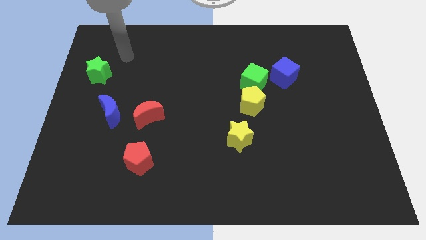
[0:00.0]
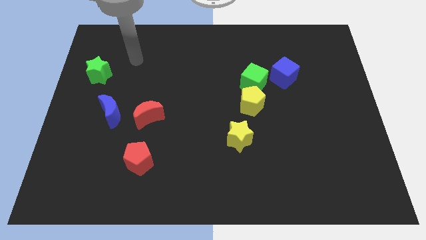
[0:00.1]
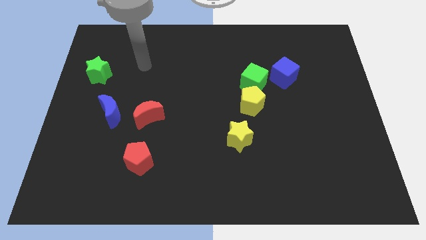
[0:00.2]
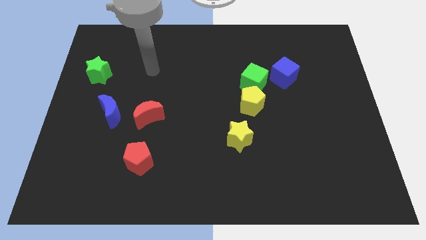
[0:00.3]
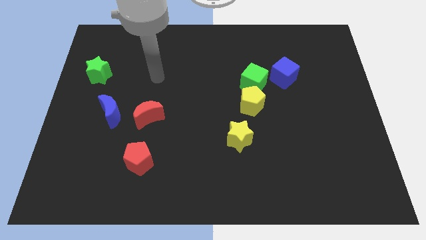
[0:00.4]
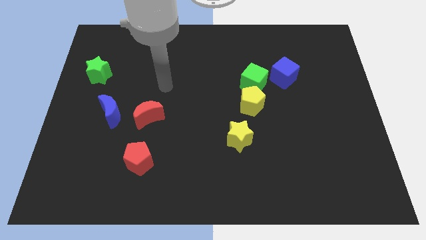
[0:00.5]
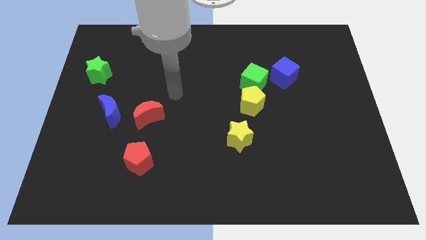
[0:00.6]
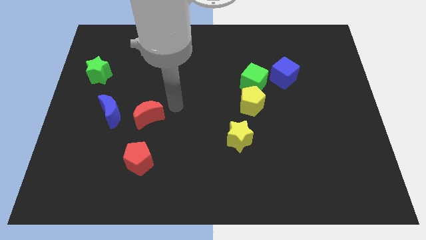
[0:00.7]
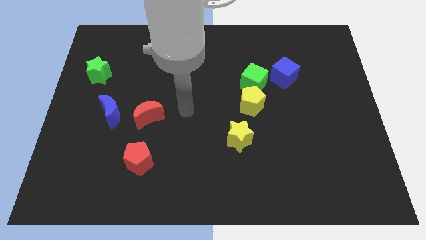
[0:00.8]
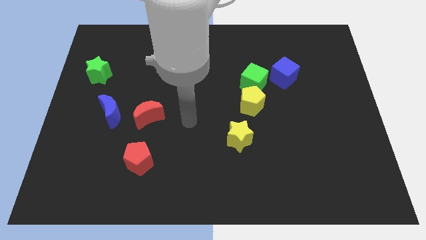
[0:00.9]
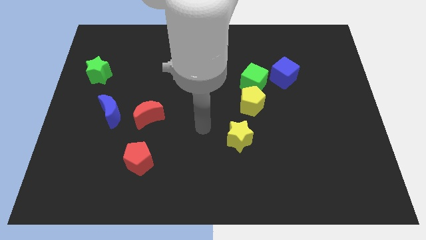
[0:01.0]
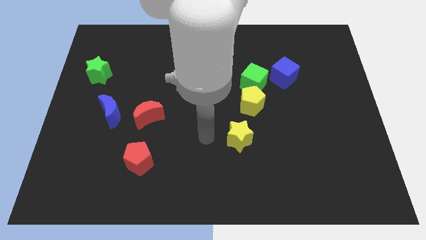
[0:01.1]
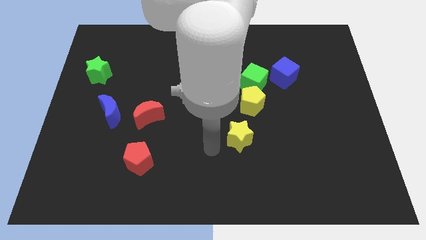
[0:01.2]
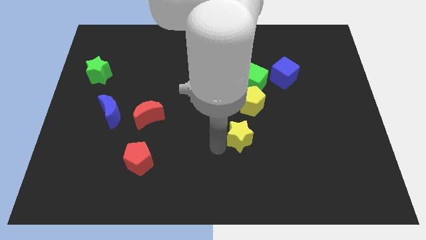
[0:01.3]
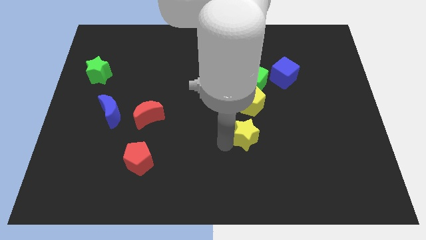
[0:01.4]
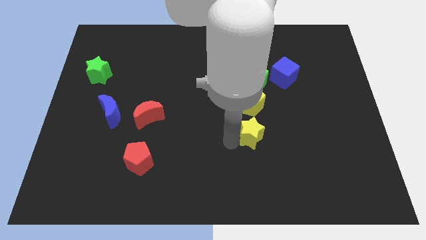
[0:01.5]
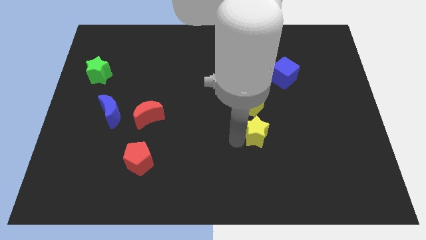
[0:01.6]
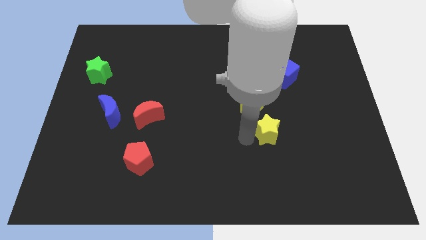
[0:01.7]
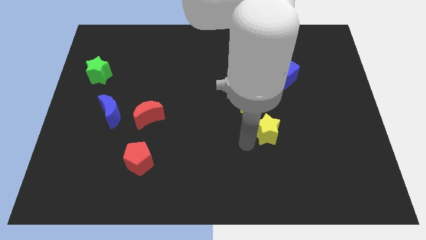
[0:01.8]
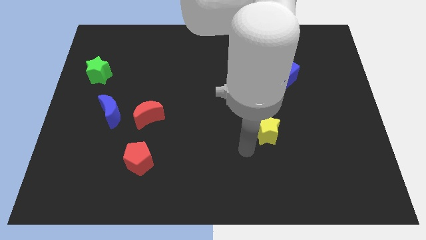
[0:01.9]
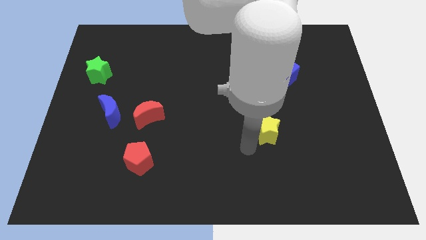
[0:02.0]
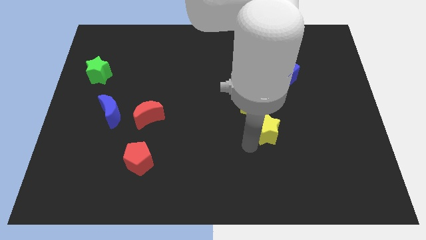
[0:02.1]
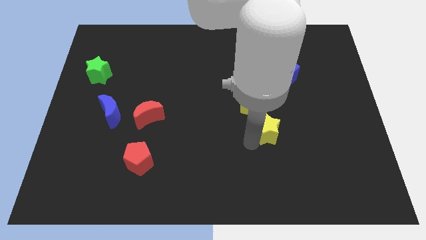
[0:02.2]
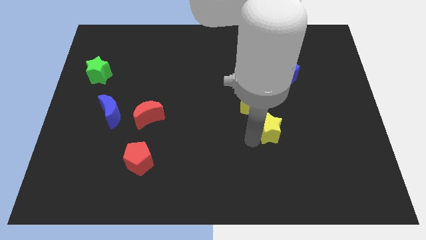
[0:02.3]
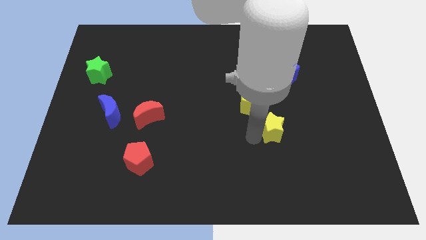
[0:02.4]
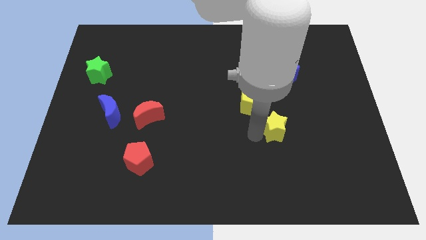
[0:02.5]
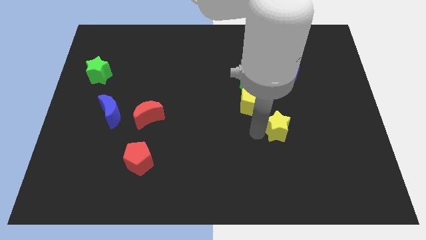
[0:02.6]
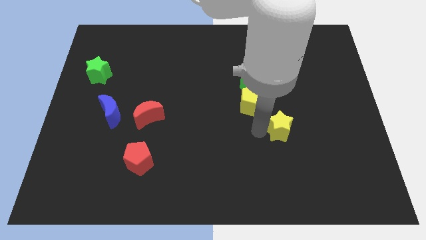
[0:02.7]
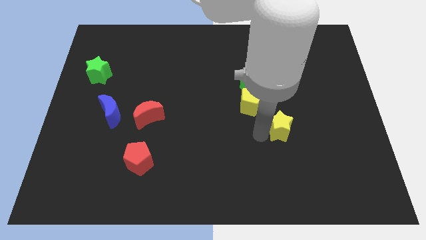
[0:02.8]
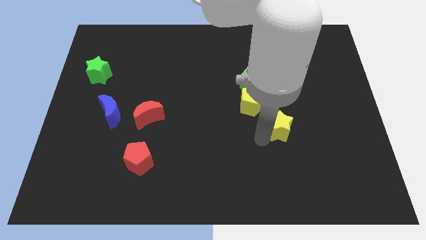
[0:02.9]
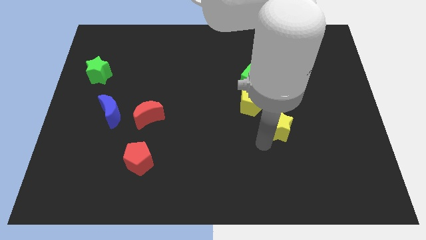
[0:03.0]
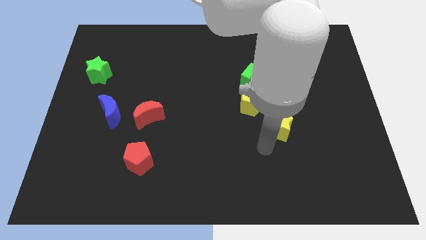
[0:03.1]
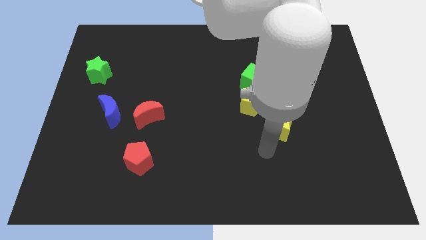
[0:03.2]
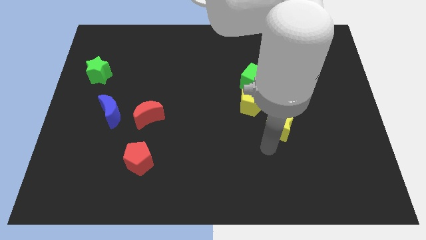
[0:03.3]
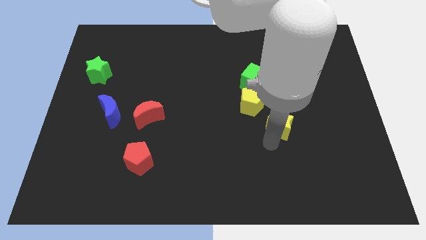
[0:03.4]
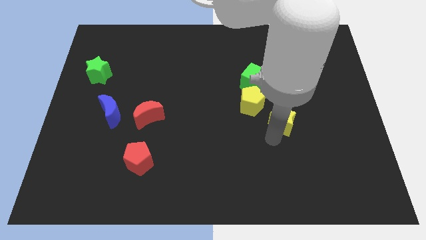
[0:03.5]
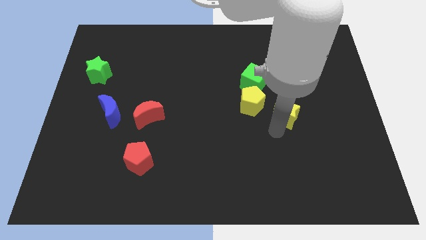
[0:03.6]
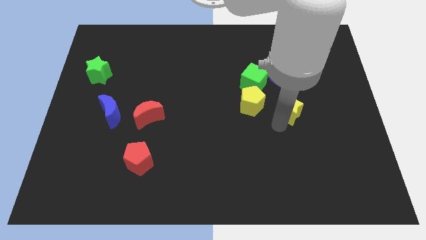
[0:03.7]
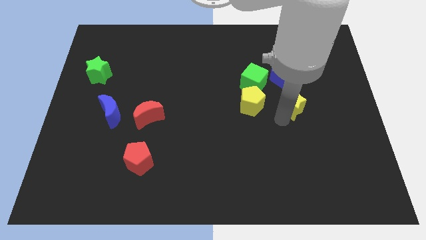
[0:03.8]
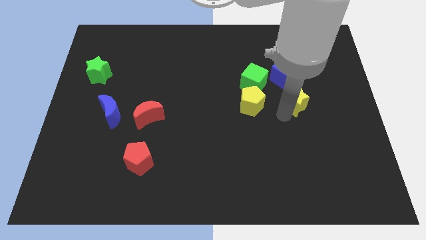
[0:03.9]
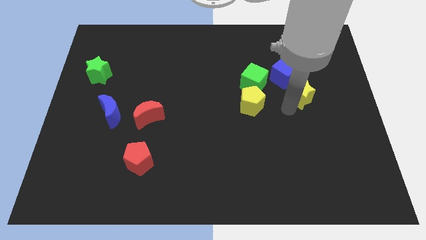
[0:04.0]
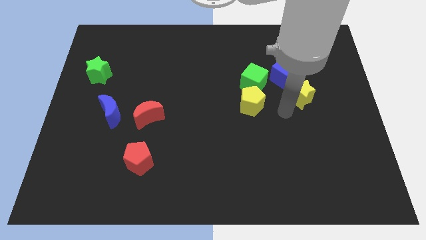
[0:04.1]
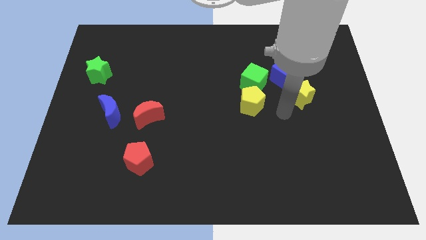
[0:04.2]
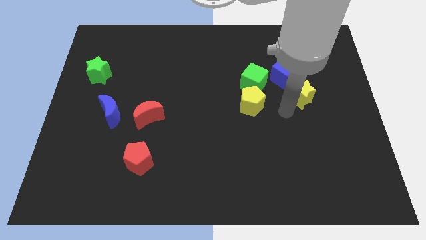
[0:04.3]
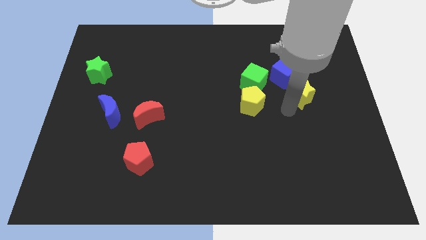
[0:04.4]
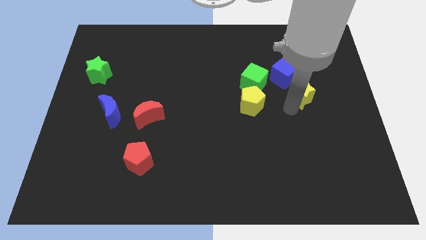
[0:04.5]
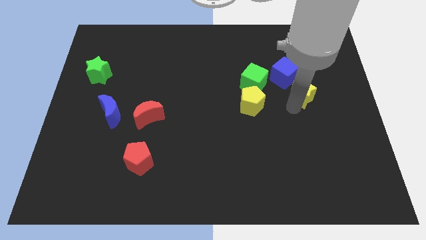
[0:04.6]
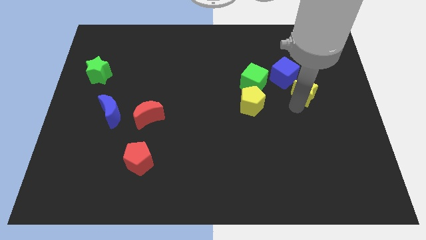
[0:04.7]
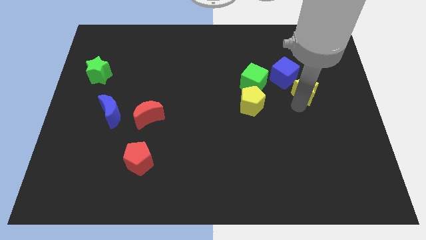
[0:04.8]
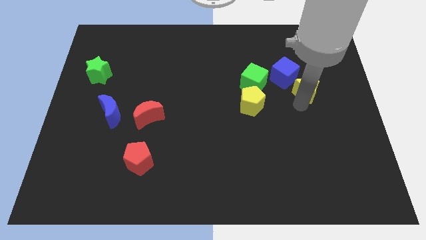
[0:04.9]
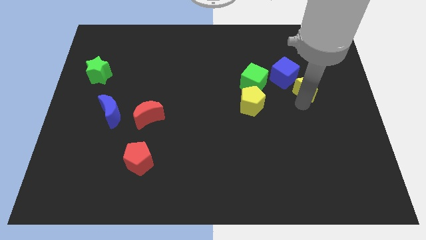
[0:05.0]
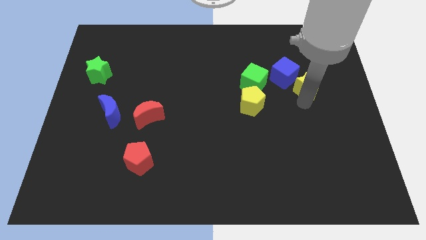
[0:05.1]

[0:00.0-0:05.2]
move the yellow star to the right side of the blue cube

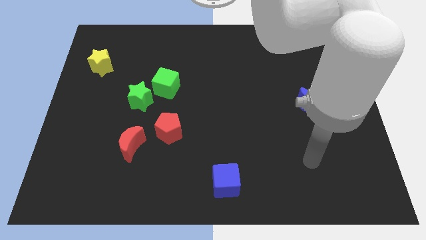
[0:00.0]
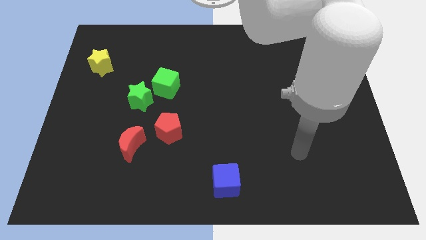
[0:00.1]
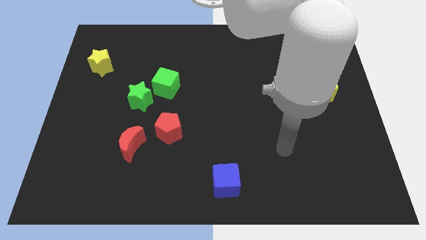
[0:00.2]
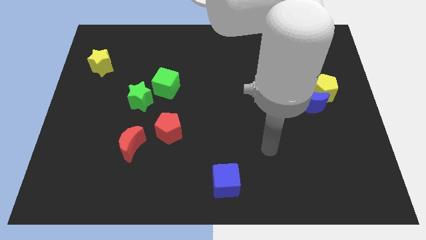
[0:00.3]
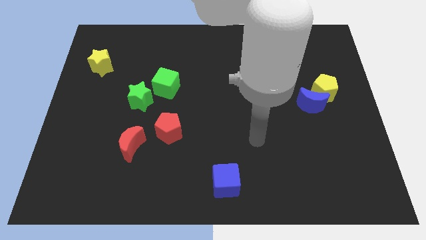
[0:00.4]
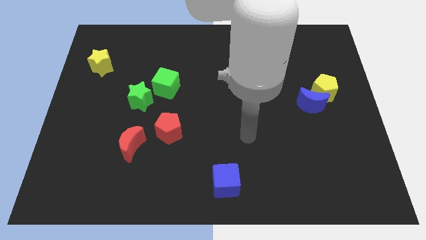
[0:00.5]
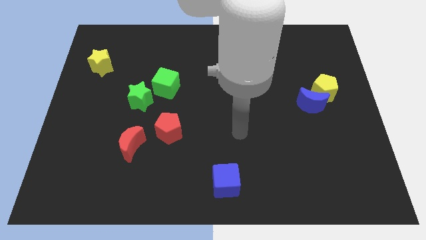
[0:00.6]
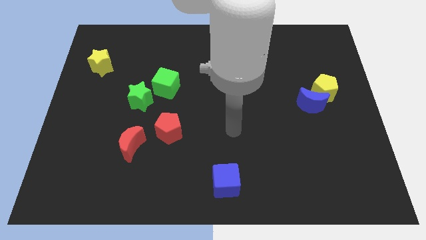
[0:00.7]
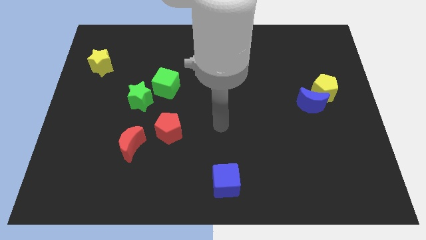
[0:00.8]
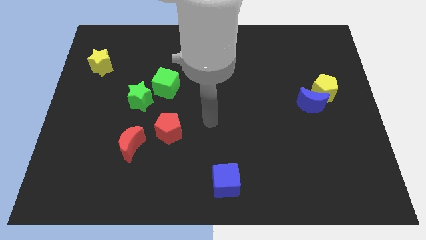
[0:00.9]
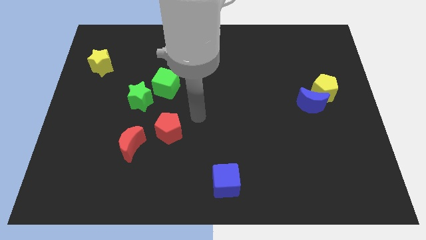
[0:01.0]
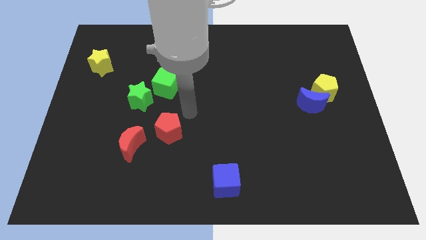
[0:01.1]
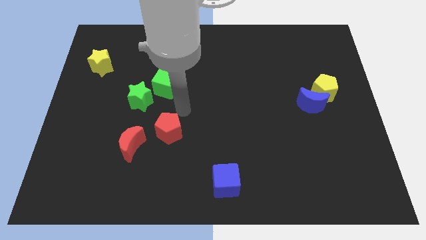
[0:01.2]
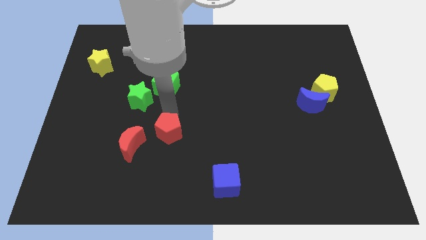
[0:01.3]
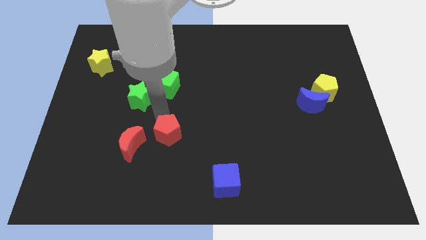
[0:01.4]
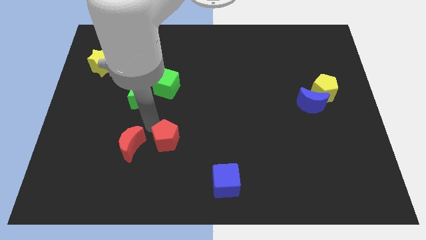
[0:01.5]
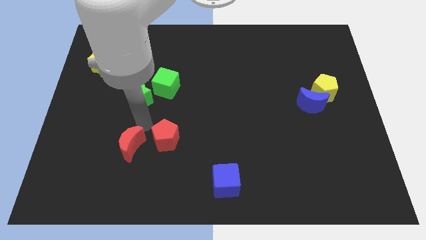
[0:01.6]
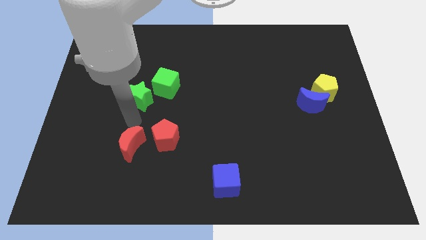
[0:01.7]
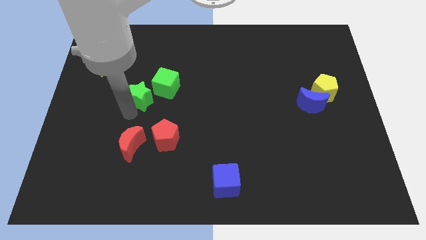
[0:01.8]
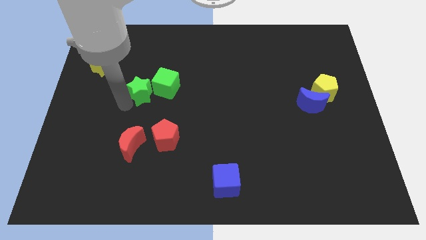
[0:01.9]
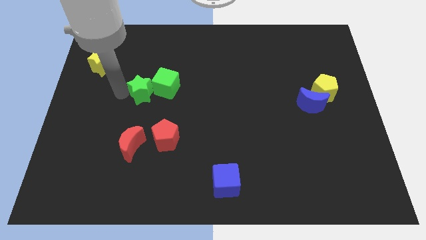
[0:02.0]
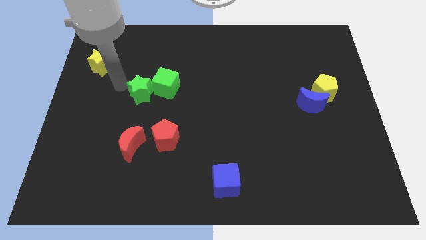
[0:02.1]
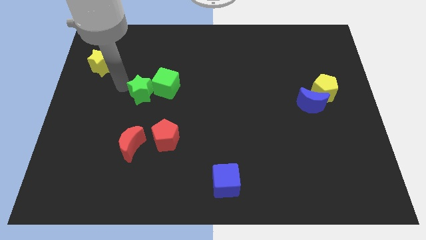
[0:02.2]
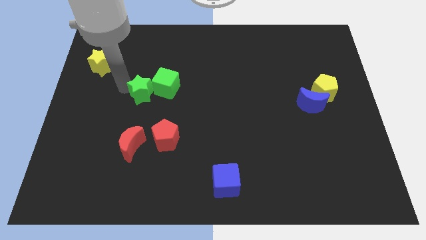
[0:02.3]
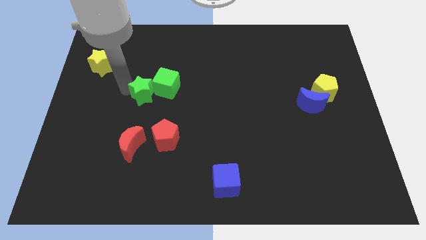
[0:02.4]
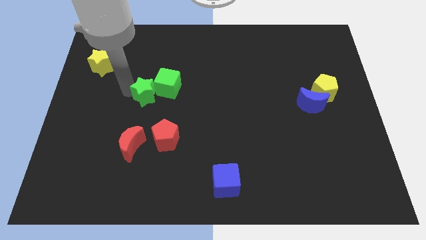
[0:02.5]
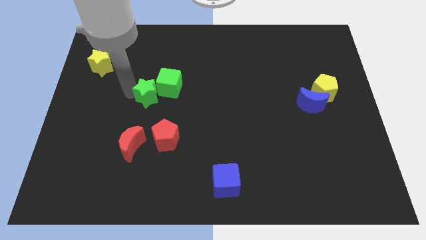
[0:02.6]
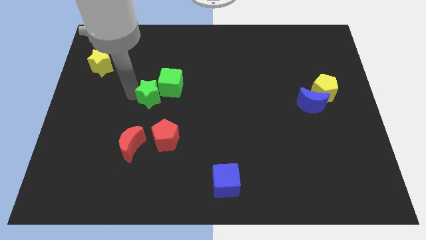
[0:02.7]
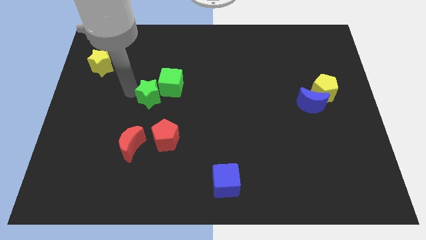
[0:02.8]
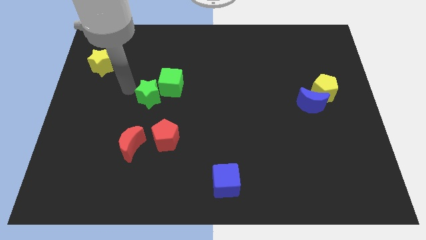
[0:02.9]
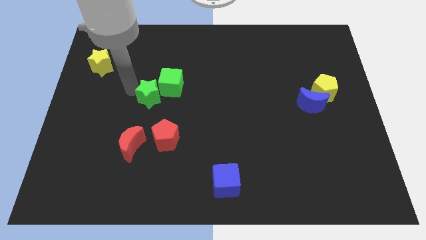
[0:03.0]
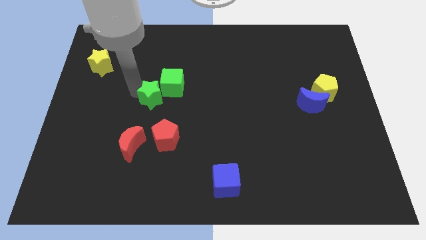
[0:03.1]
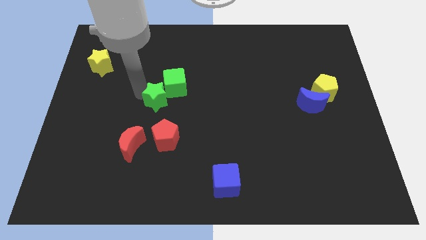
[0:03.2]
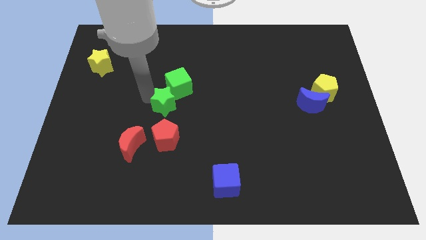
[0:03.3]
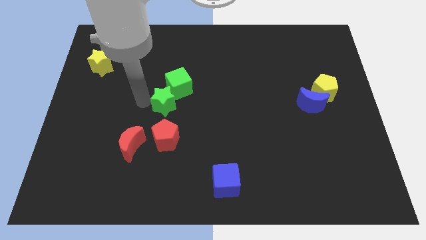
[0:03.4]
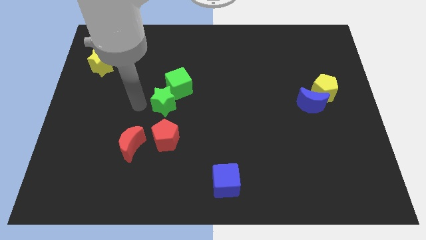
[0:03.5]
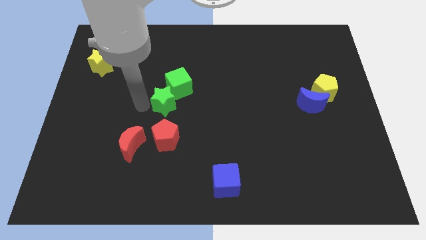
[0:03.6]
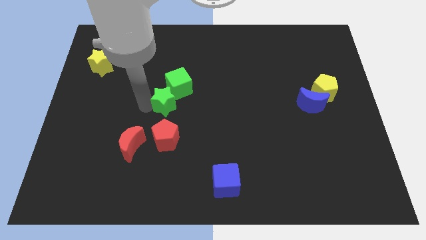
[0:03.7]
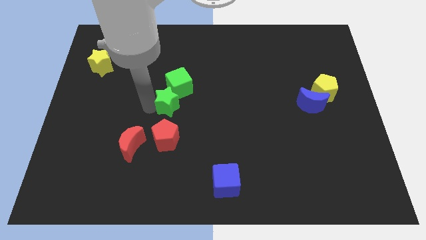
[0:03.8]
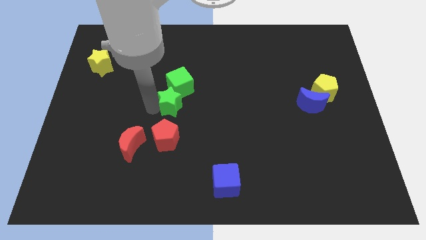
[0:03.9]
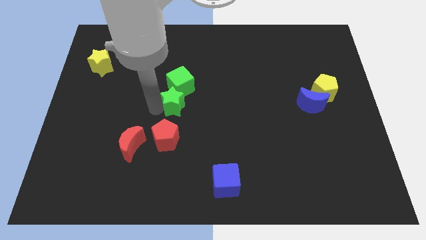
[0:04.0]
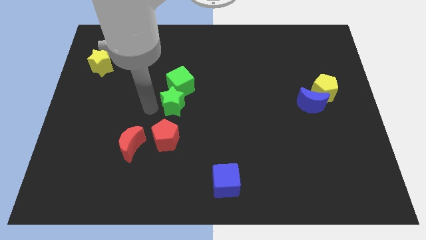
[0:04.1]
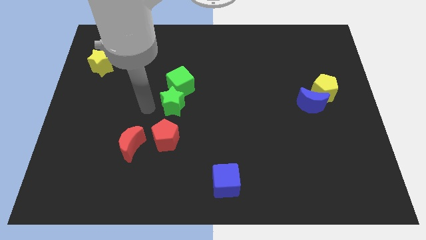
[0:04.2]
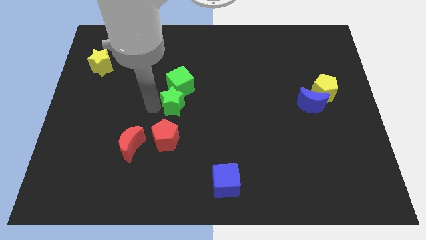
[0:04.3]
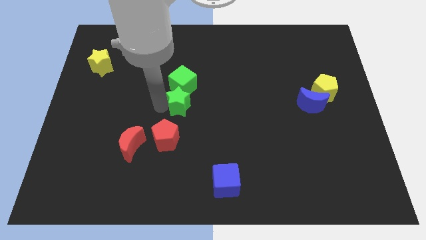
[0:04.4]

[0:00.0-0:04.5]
slide the green star to the bottom right of the green cube
